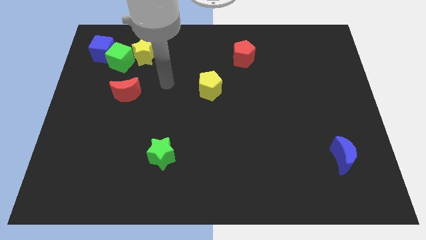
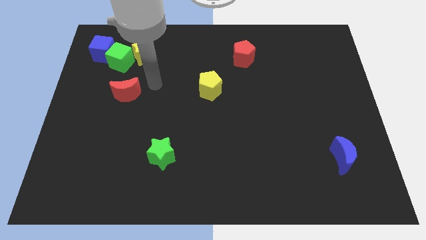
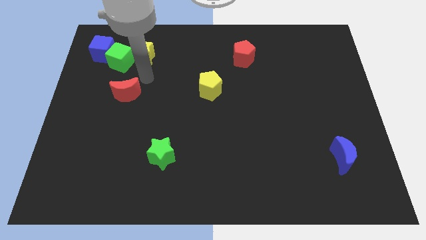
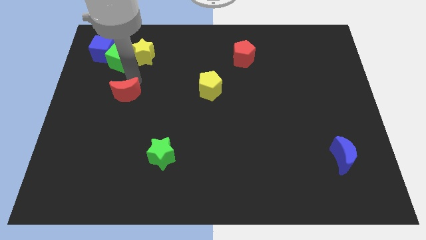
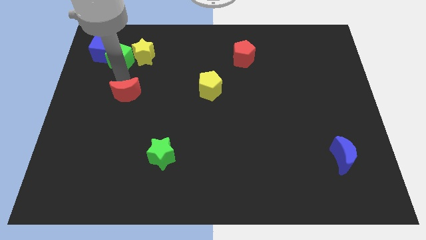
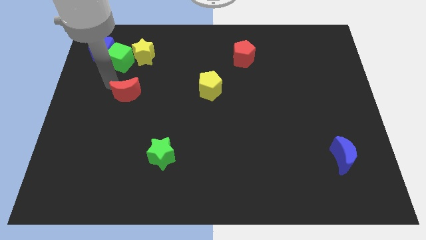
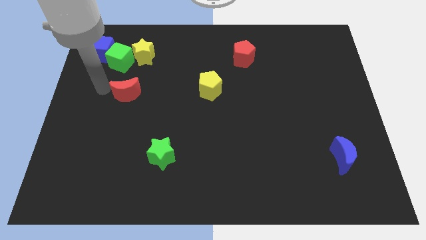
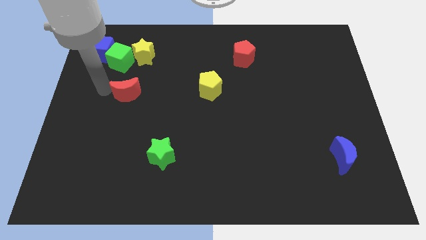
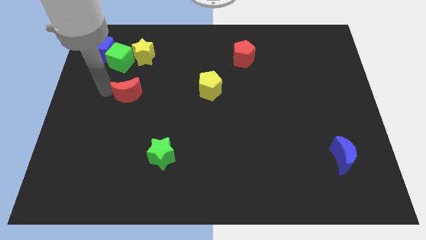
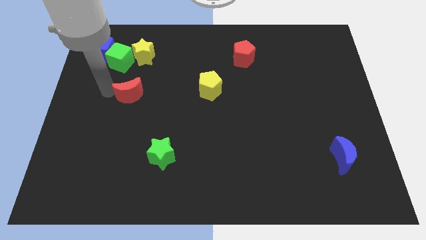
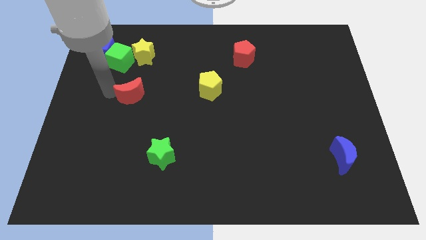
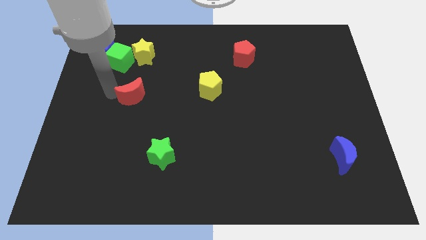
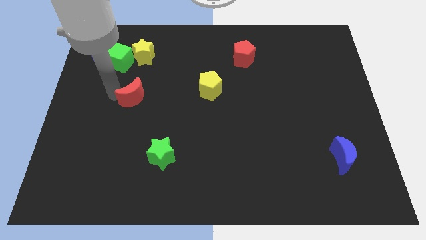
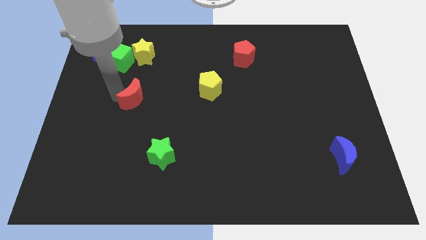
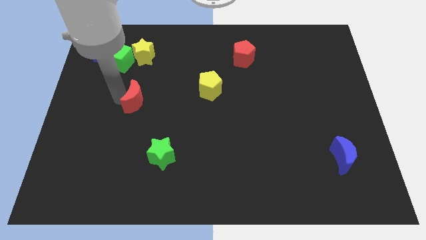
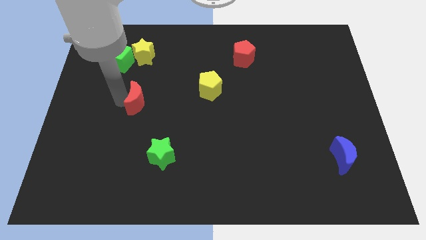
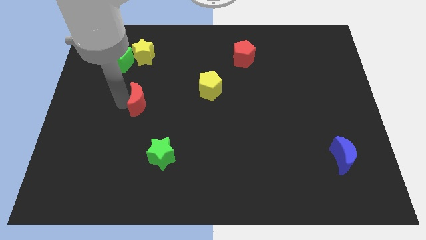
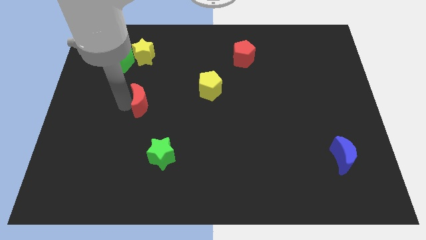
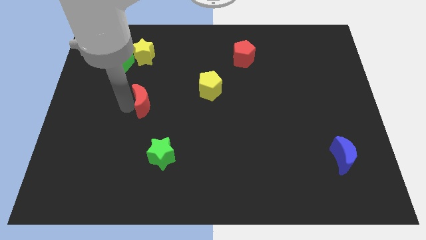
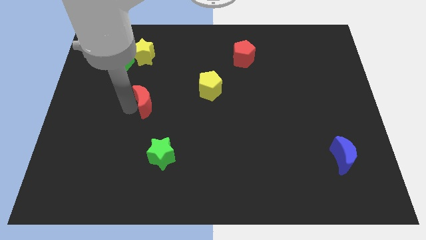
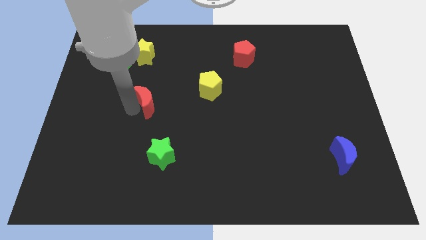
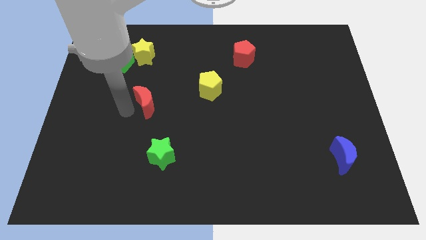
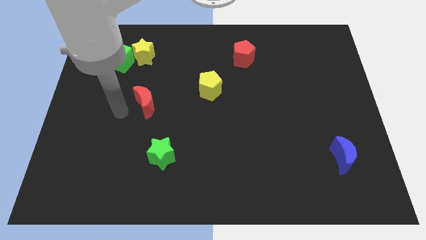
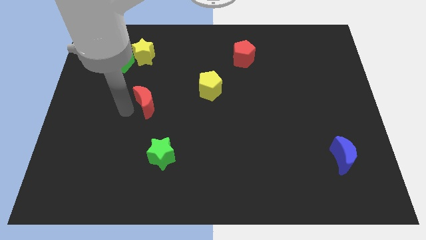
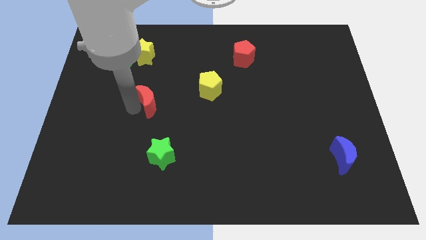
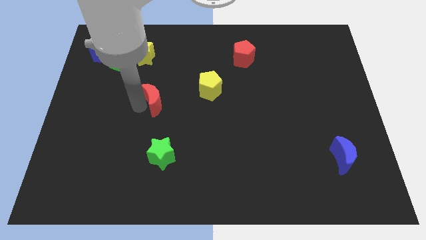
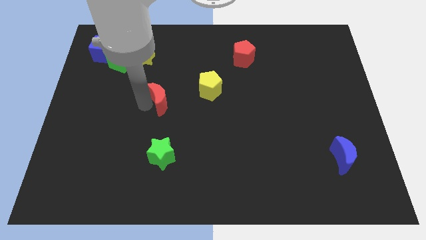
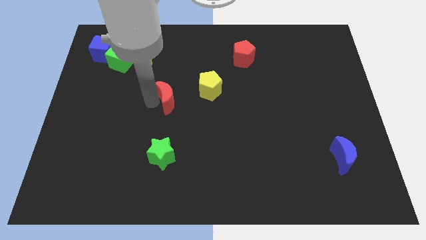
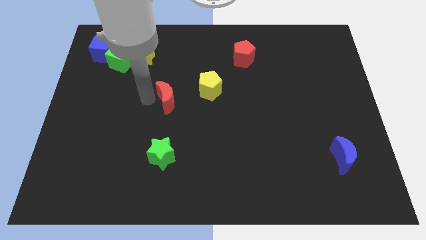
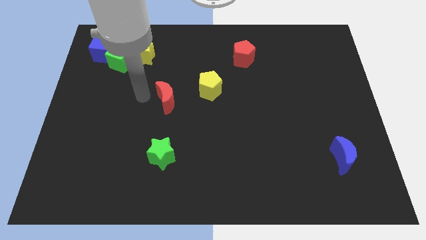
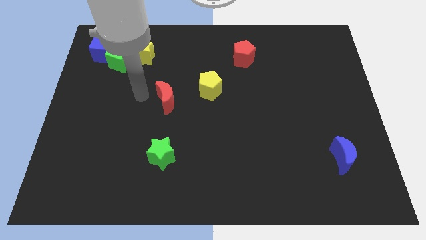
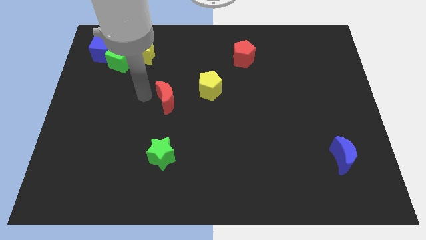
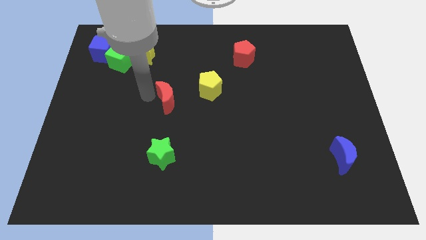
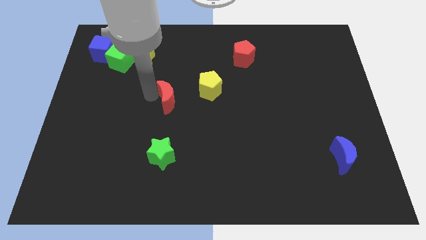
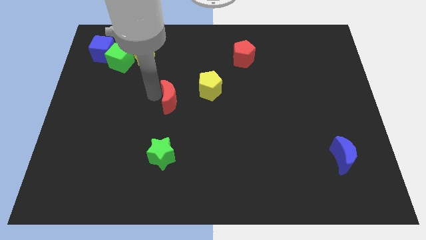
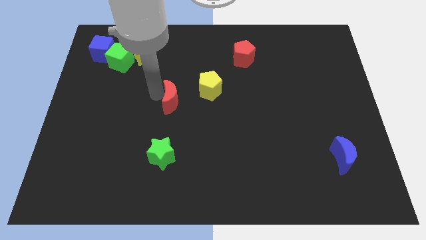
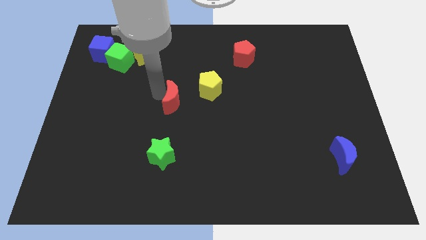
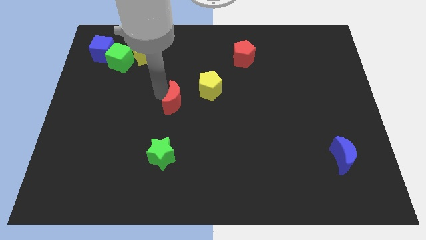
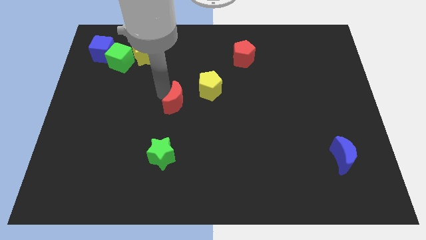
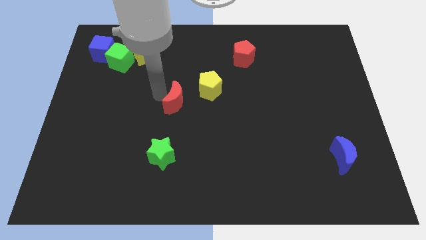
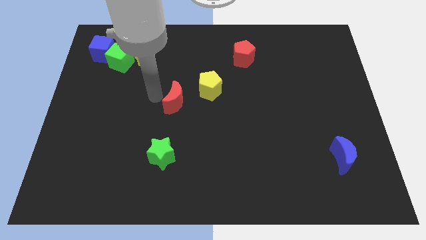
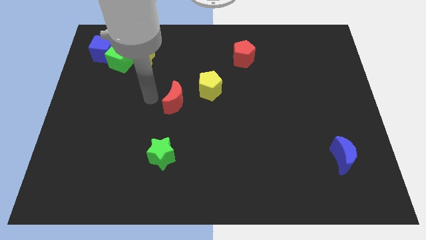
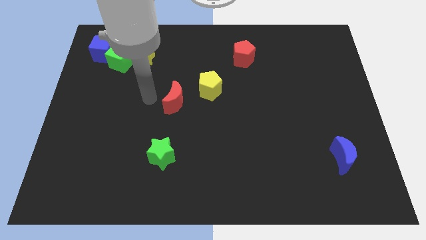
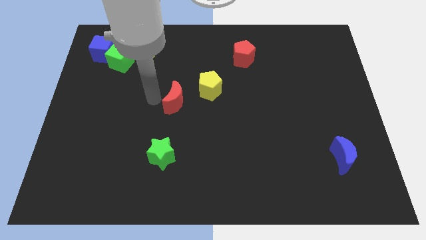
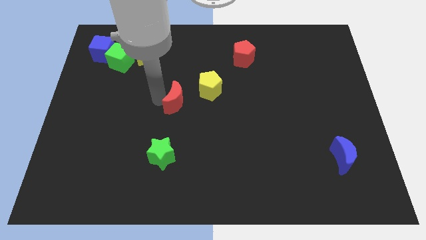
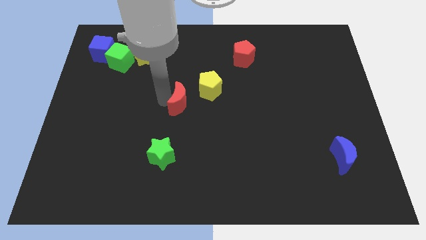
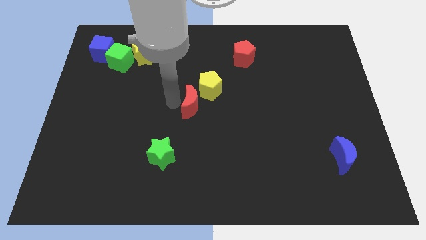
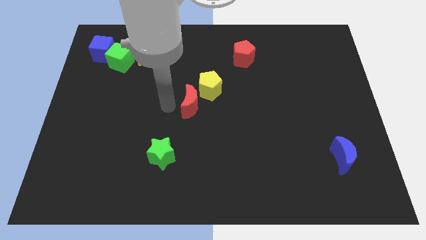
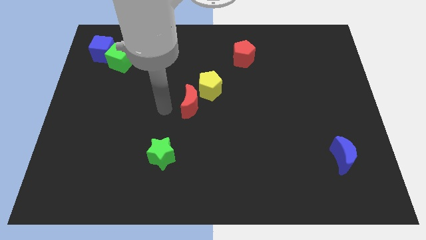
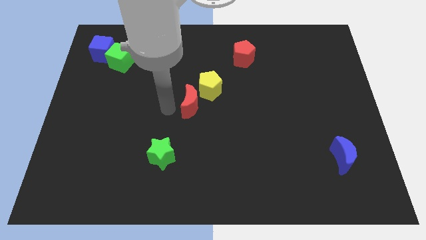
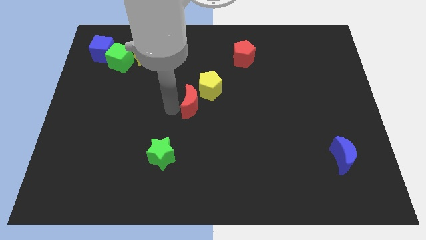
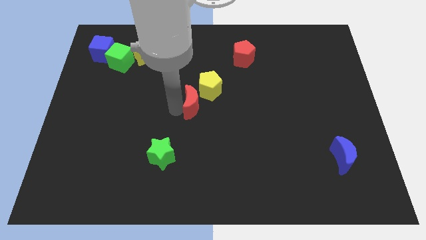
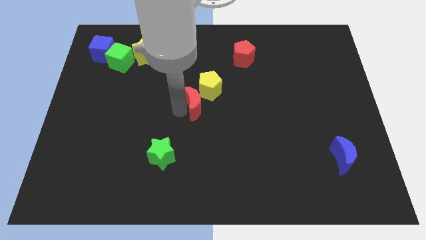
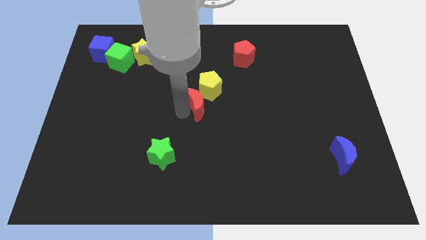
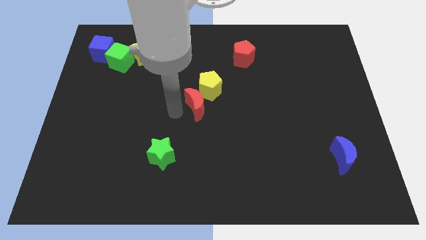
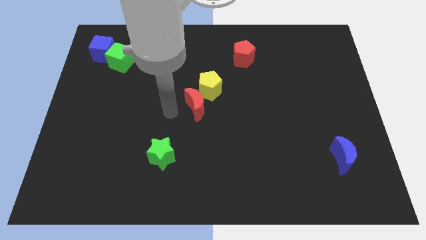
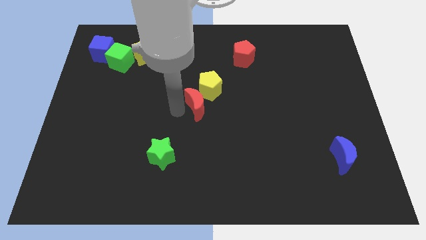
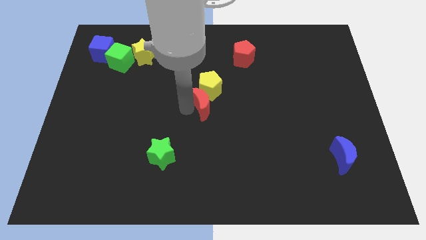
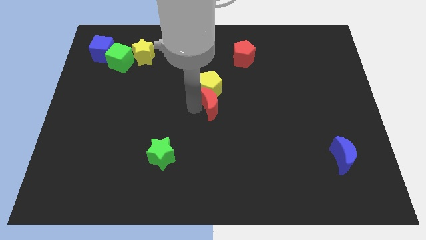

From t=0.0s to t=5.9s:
move the red moon right

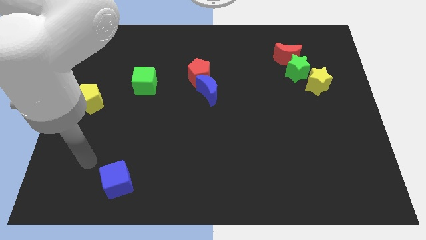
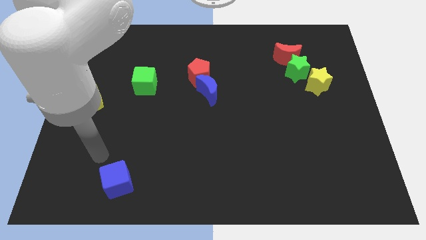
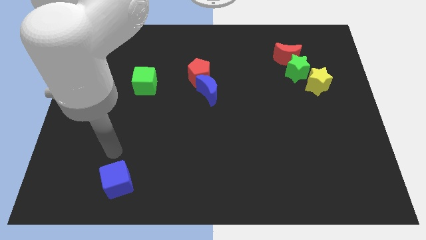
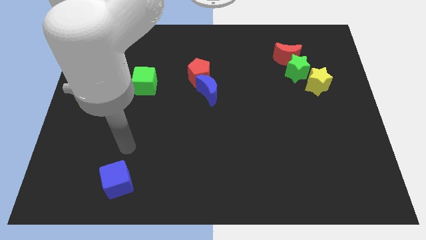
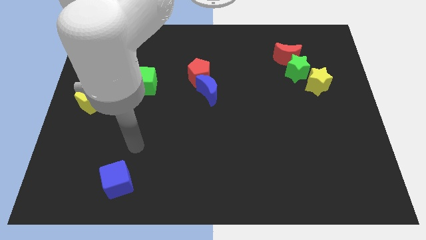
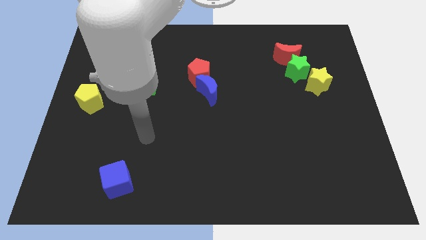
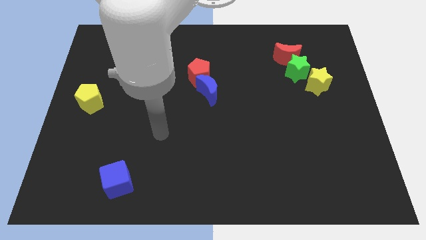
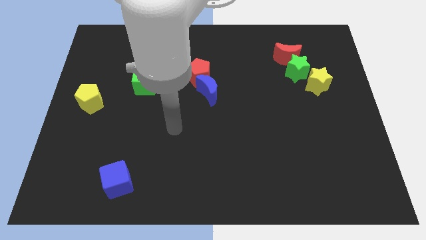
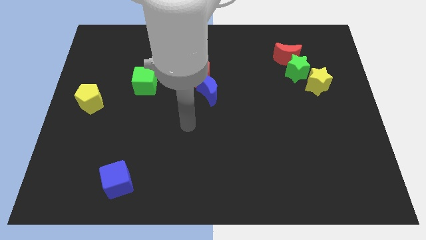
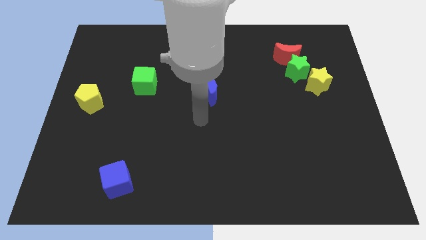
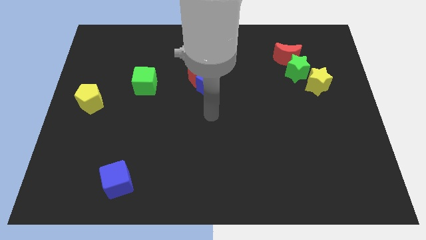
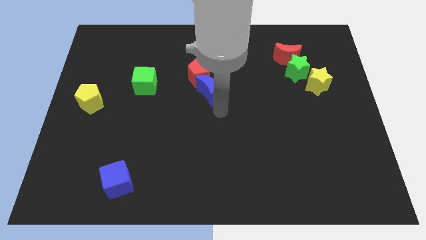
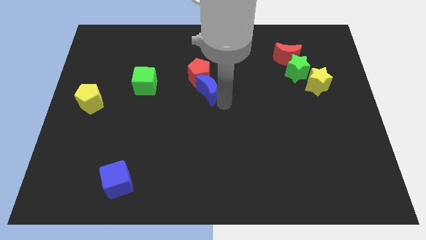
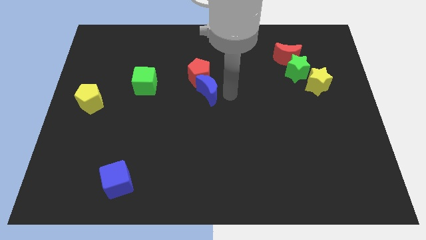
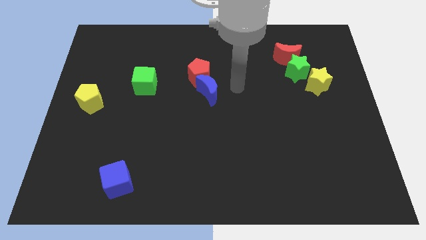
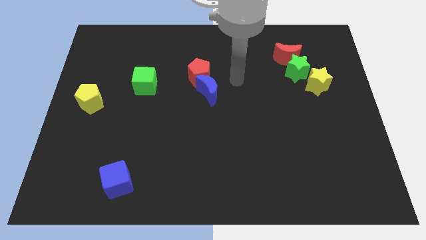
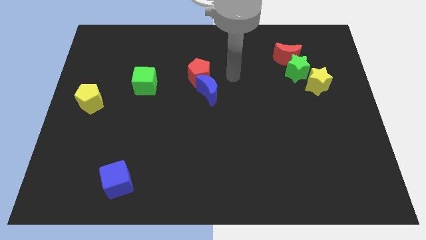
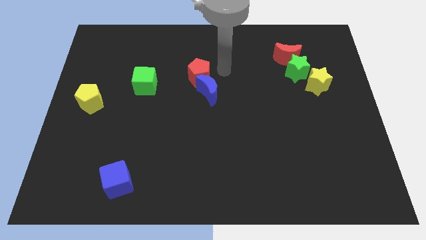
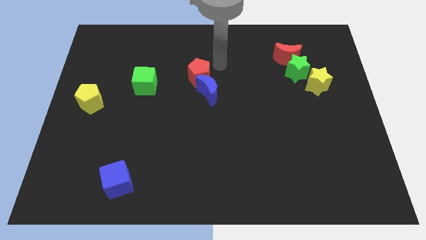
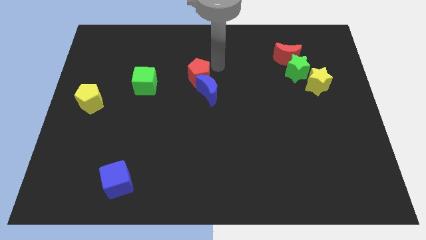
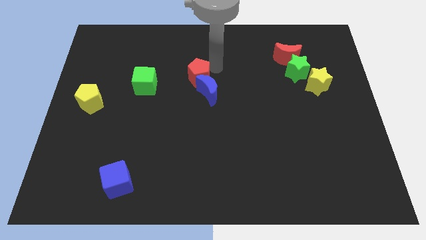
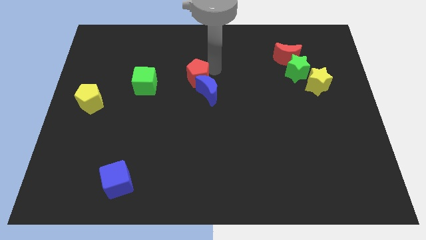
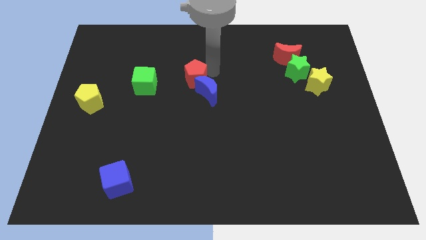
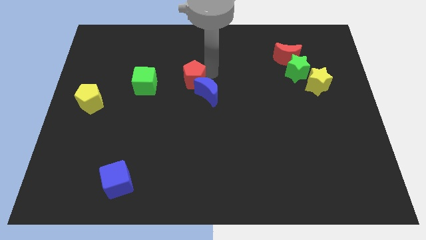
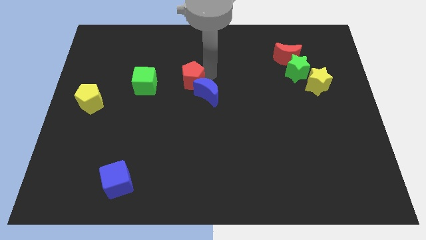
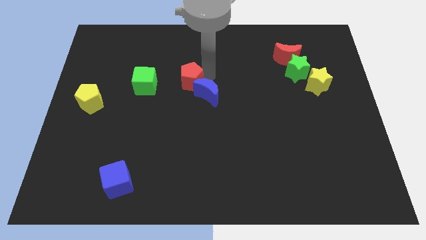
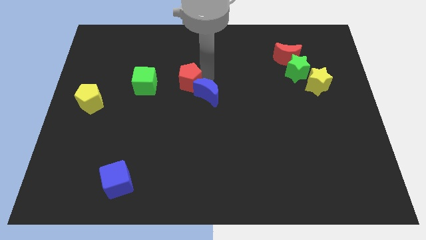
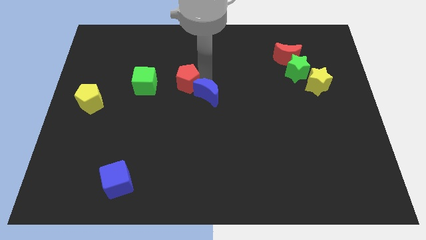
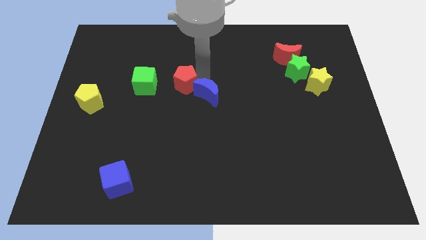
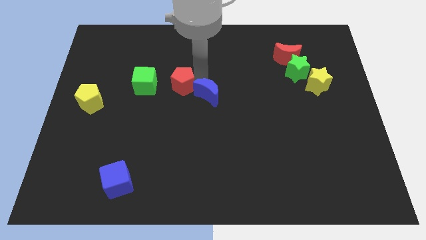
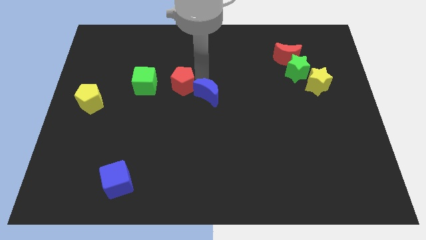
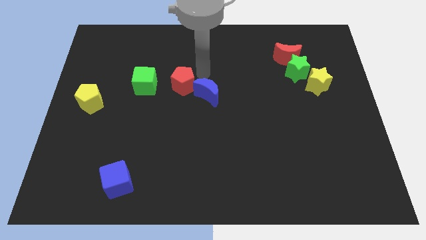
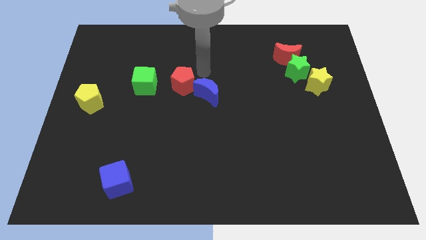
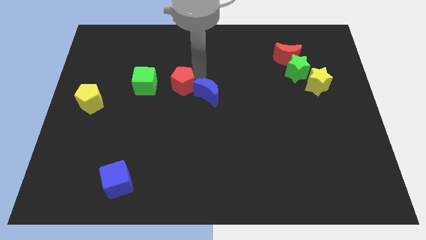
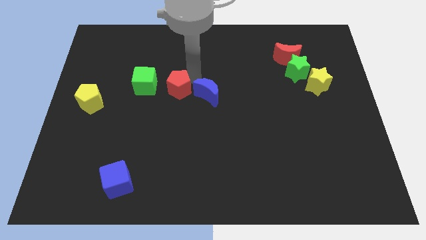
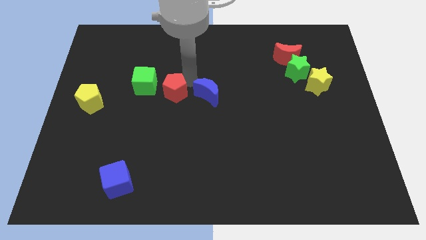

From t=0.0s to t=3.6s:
slide the red pentagon slightly down and then to the left
